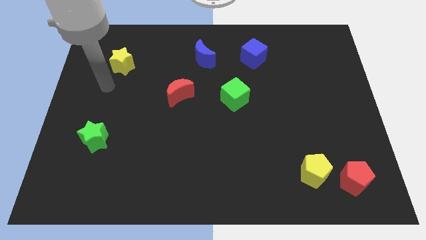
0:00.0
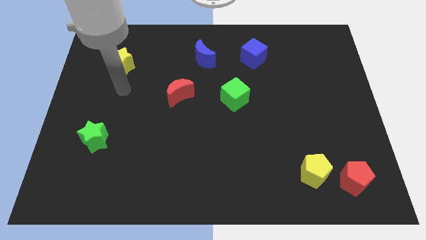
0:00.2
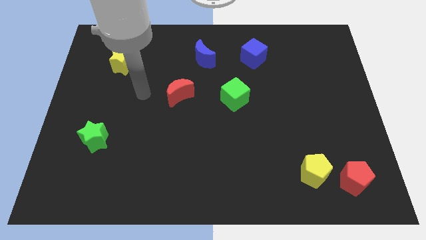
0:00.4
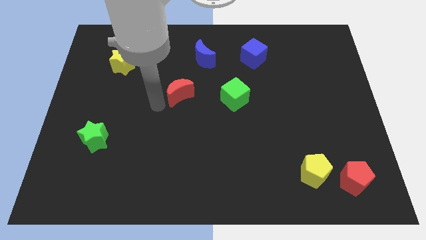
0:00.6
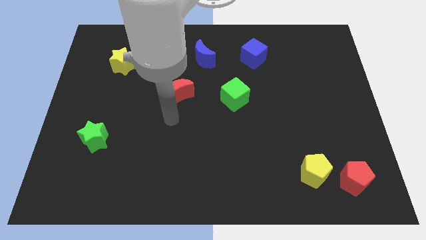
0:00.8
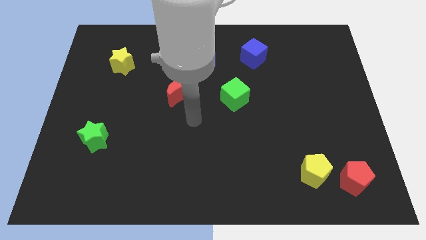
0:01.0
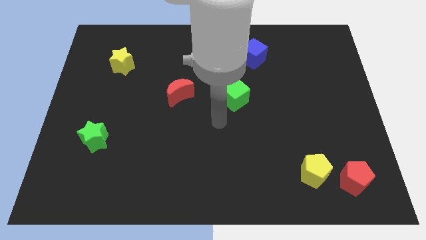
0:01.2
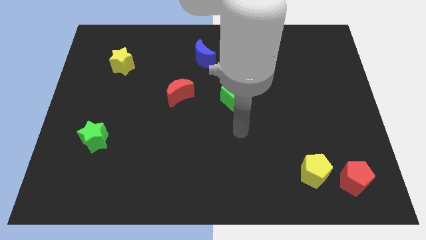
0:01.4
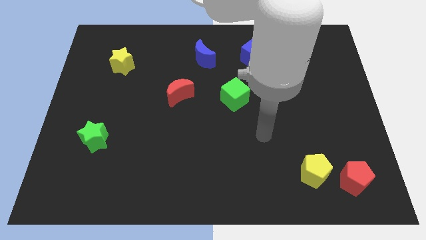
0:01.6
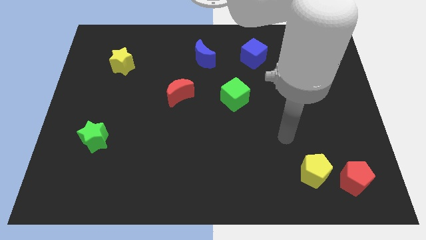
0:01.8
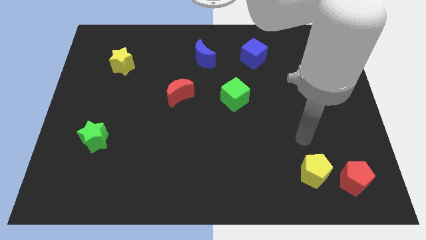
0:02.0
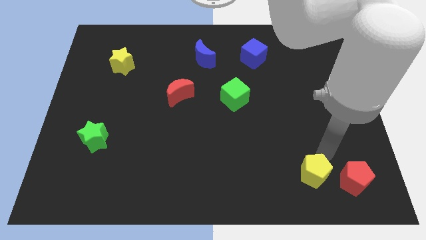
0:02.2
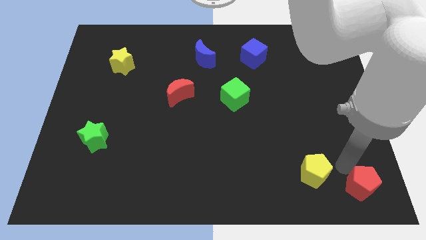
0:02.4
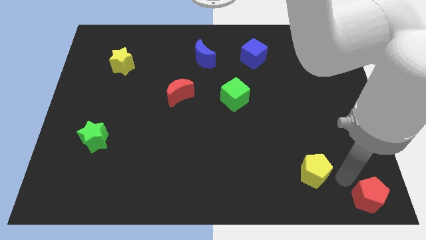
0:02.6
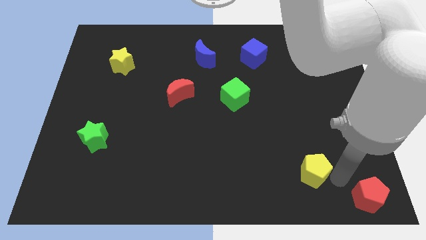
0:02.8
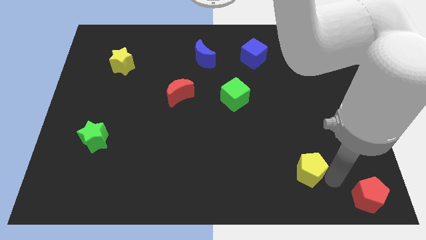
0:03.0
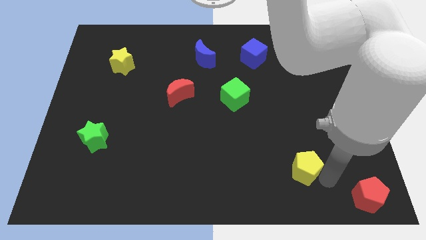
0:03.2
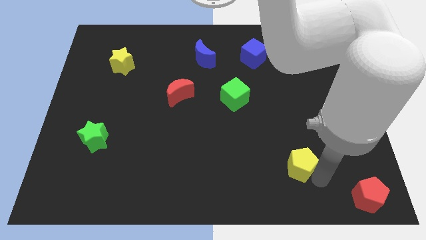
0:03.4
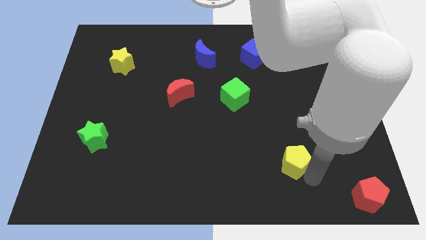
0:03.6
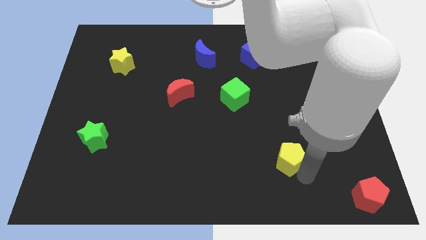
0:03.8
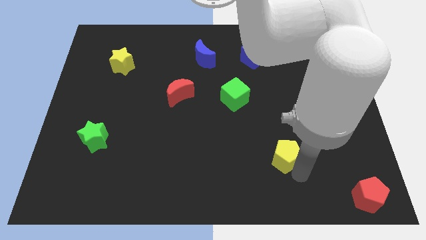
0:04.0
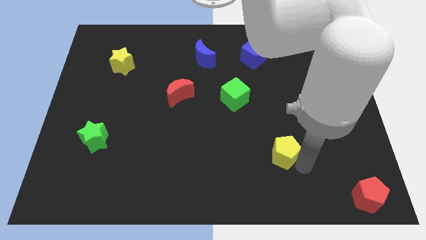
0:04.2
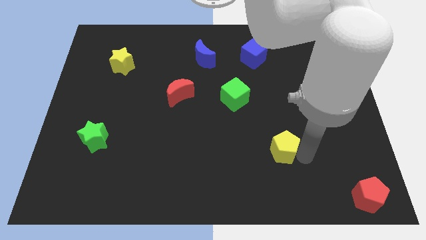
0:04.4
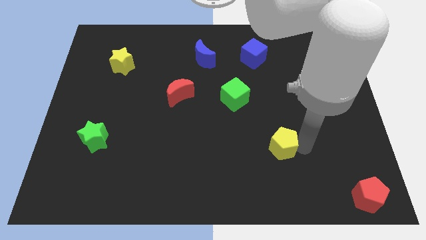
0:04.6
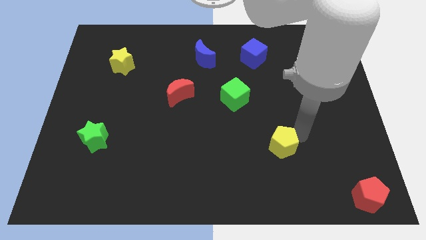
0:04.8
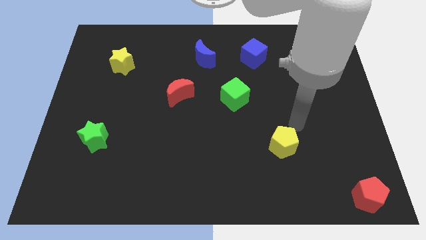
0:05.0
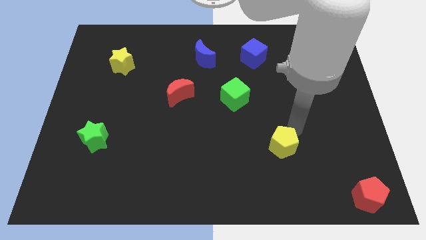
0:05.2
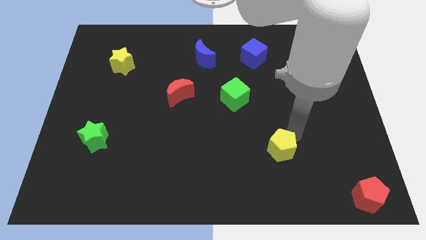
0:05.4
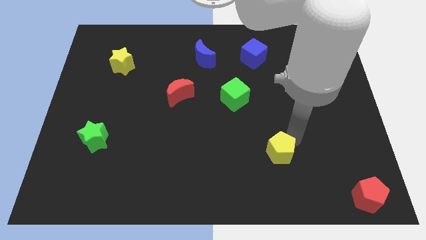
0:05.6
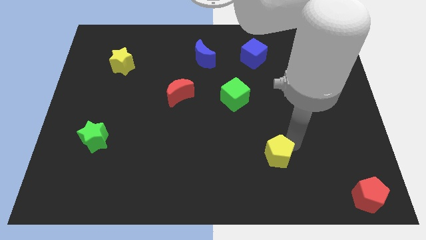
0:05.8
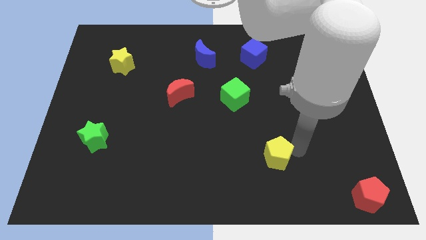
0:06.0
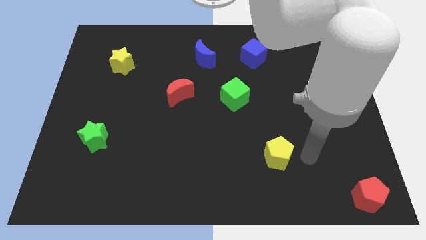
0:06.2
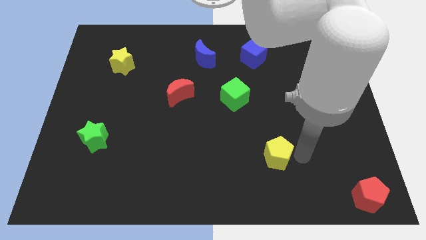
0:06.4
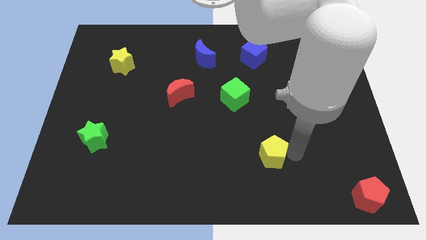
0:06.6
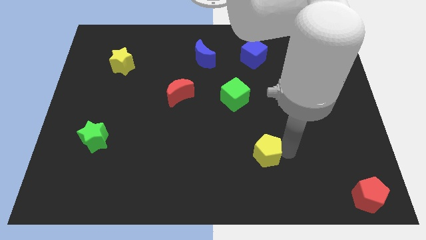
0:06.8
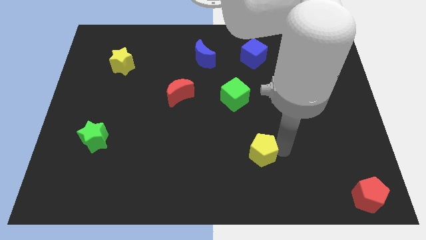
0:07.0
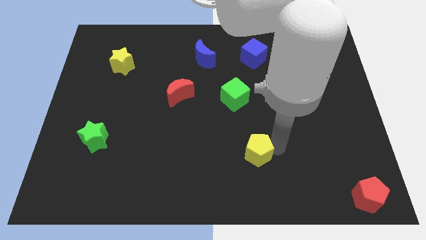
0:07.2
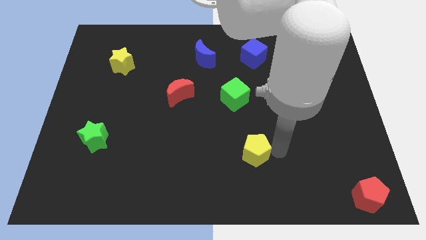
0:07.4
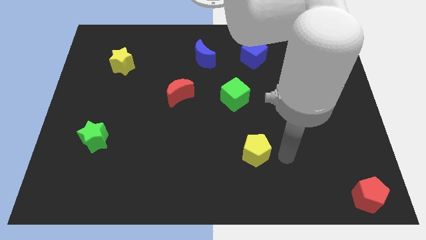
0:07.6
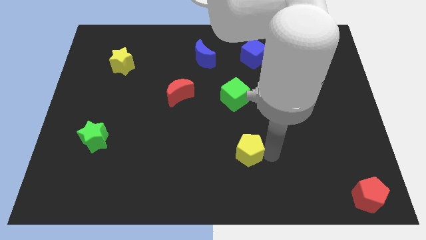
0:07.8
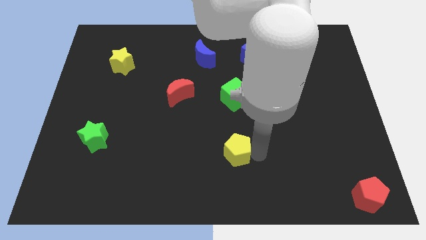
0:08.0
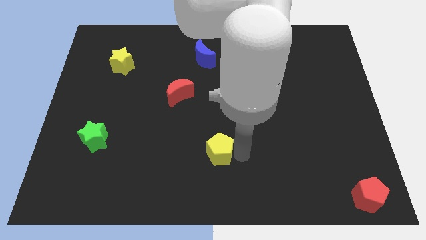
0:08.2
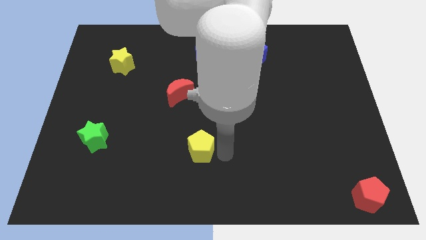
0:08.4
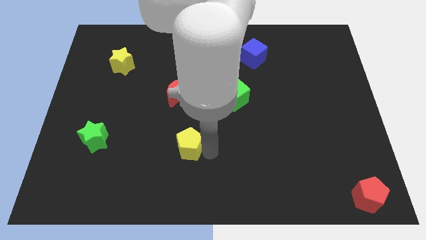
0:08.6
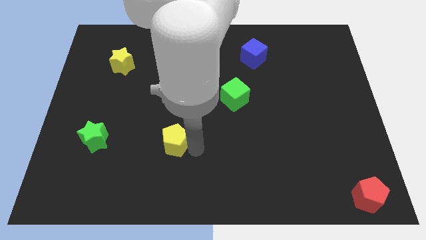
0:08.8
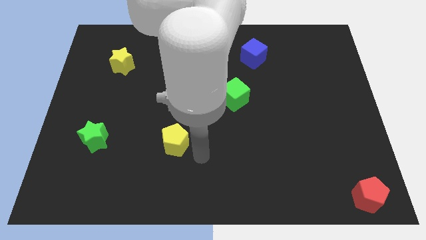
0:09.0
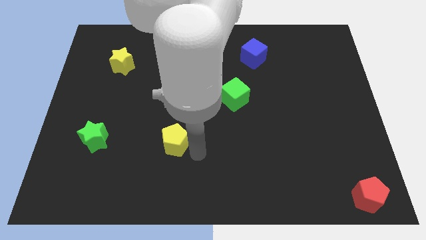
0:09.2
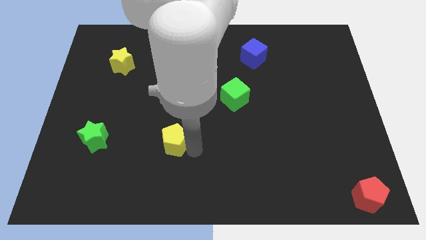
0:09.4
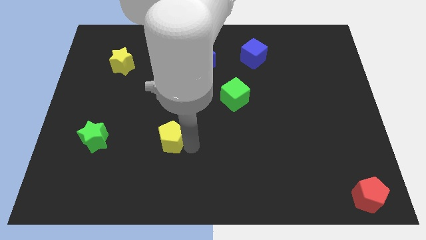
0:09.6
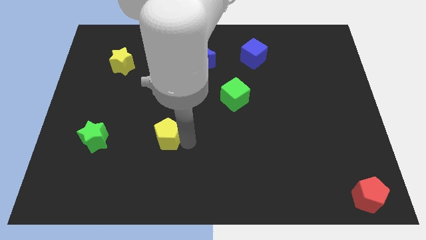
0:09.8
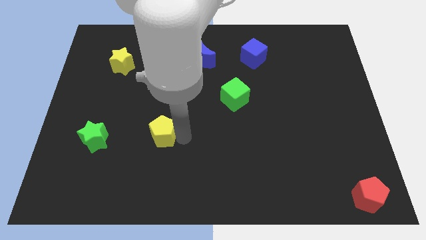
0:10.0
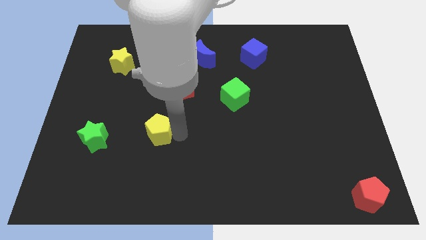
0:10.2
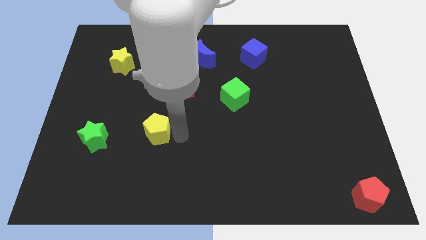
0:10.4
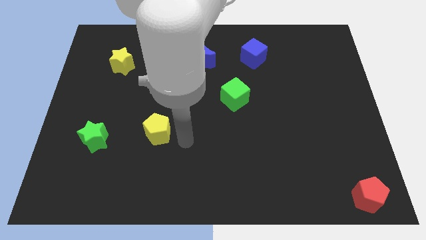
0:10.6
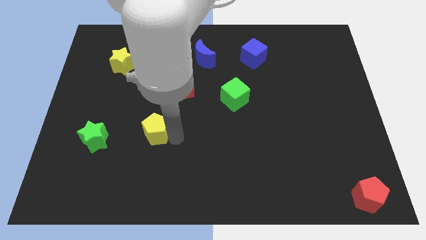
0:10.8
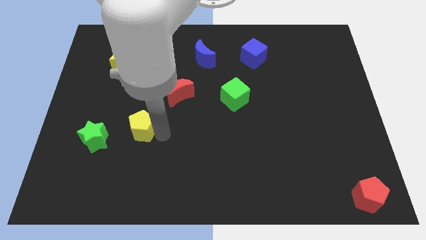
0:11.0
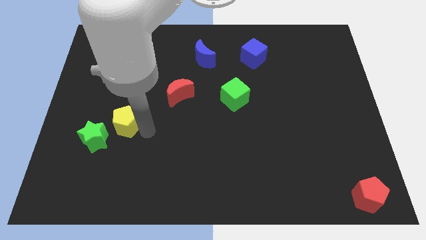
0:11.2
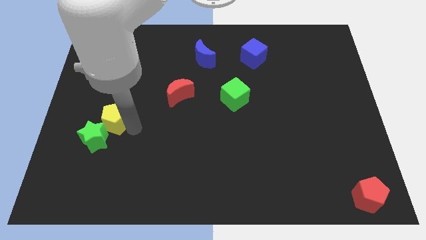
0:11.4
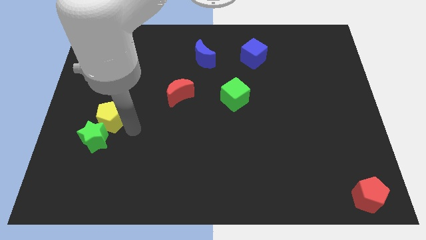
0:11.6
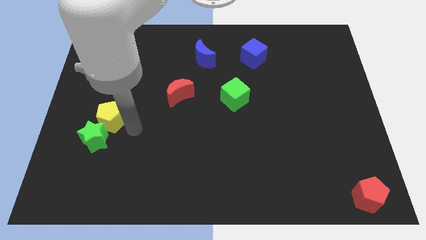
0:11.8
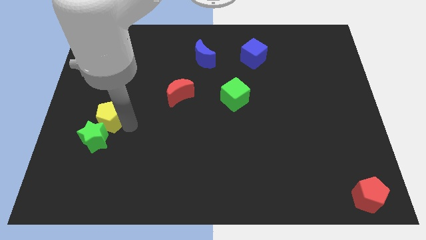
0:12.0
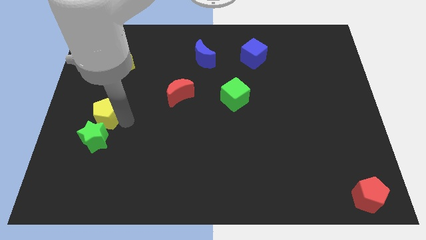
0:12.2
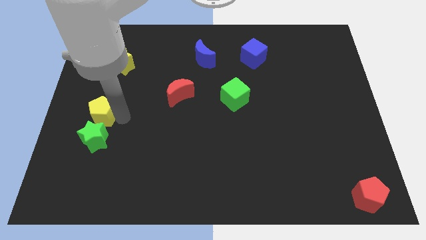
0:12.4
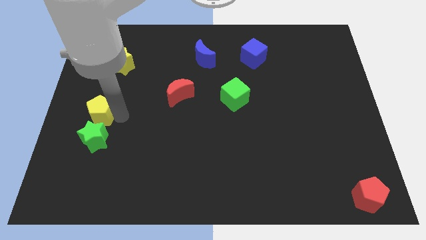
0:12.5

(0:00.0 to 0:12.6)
put the yellow pentagon to the left side of the board

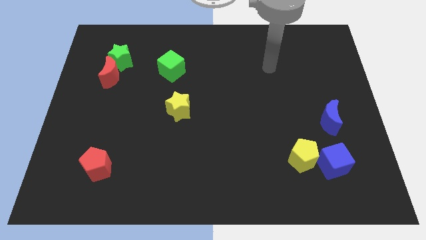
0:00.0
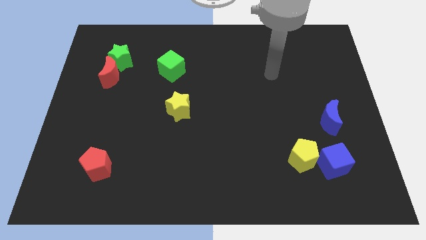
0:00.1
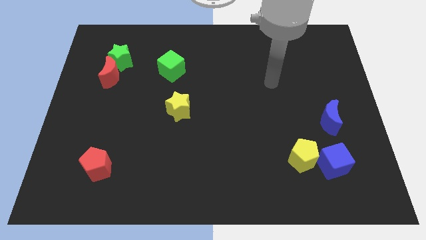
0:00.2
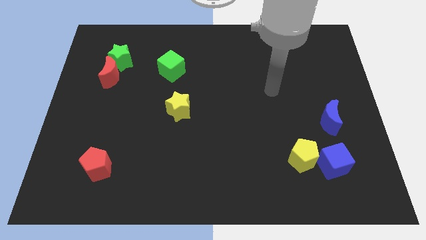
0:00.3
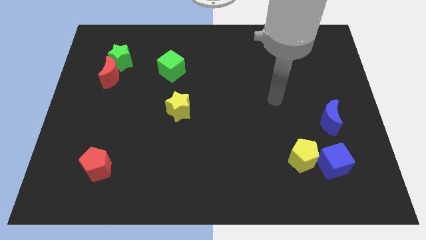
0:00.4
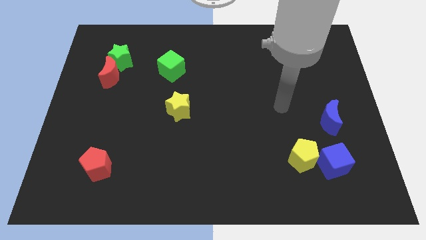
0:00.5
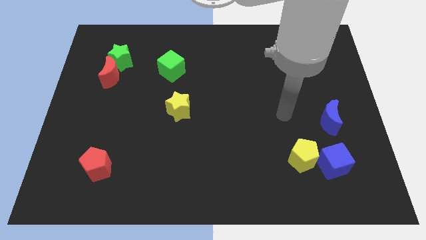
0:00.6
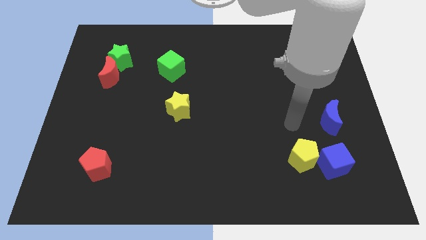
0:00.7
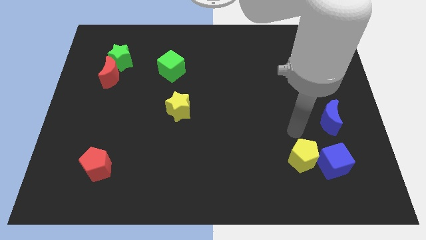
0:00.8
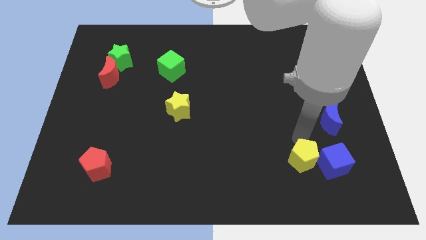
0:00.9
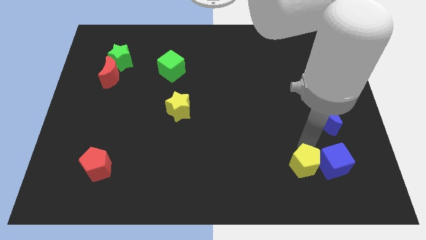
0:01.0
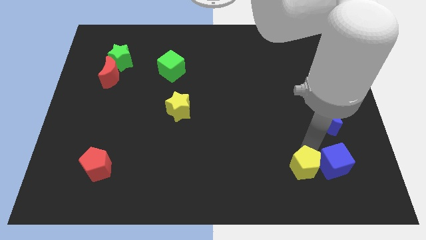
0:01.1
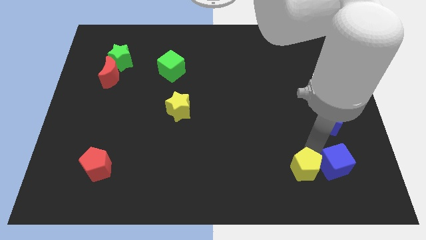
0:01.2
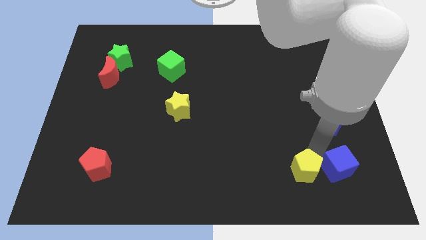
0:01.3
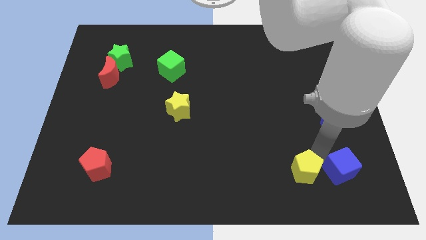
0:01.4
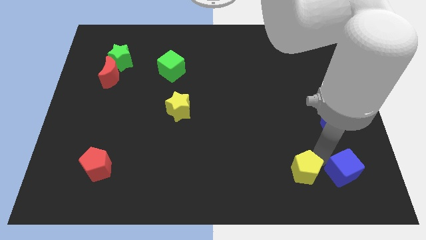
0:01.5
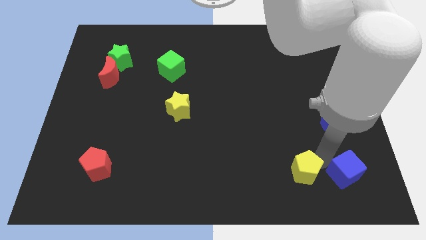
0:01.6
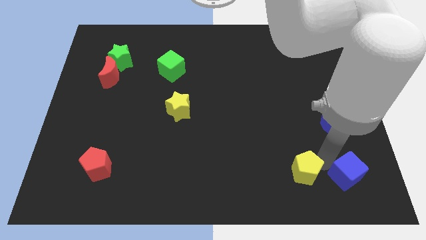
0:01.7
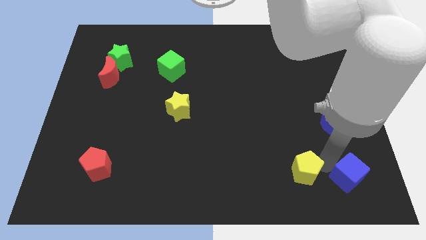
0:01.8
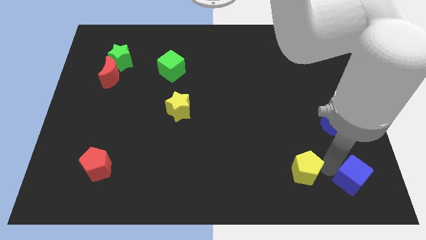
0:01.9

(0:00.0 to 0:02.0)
slide the blue cube to the bottom right
